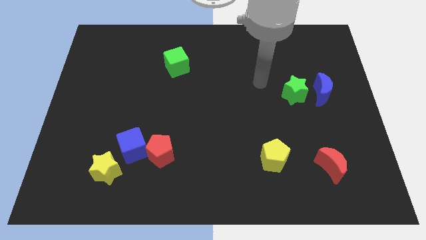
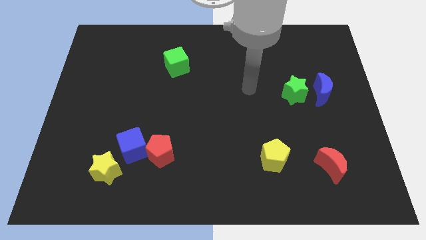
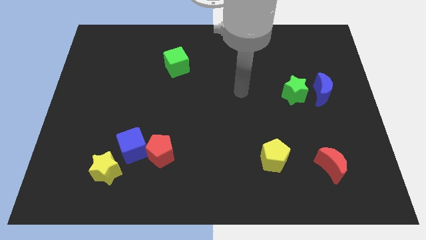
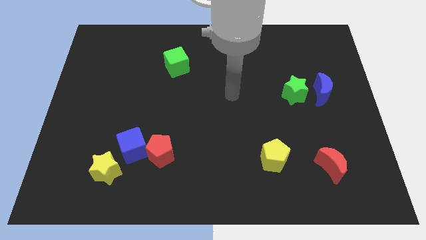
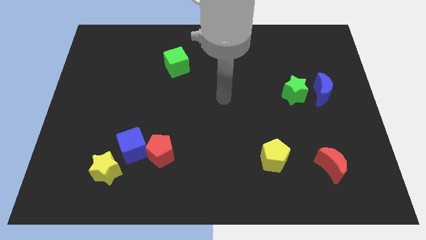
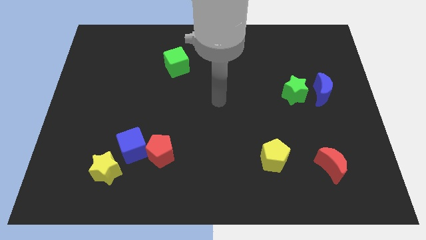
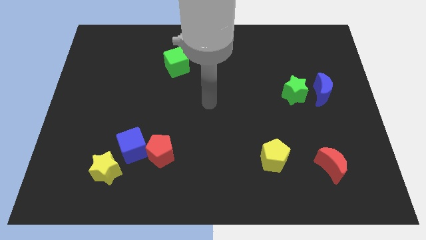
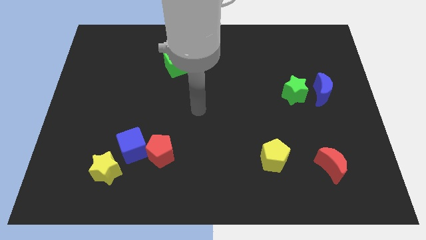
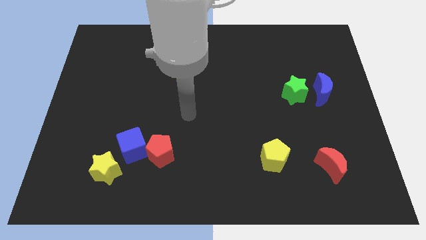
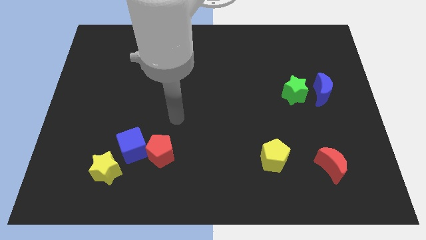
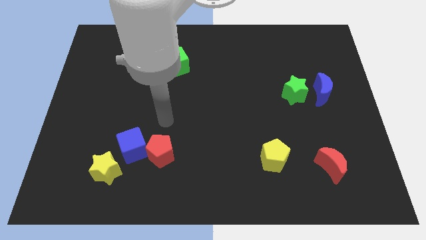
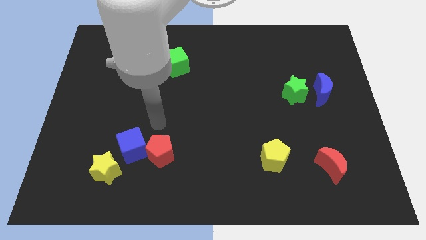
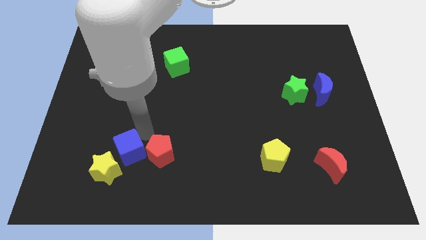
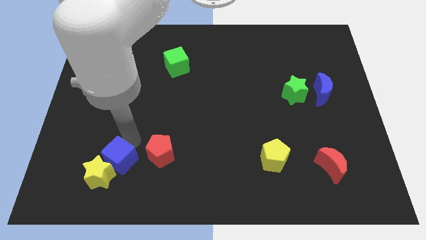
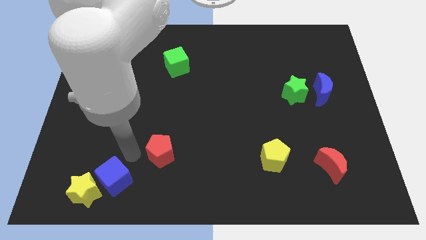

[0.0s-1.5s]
separate the red pentagon from the blue cube

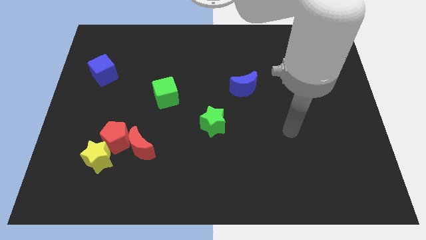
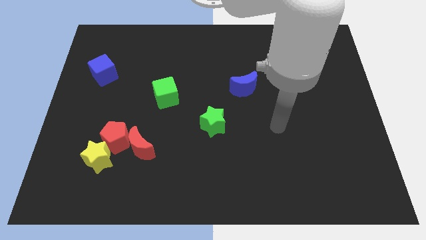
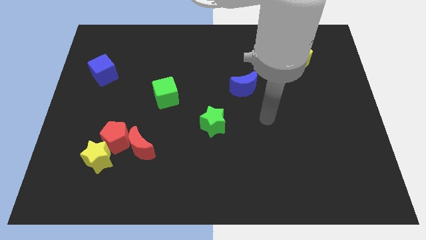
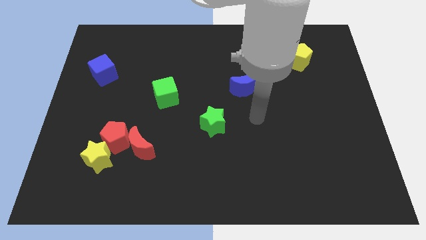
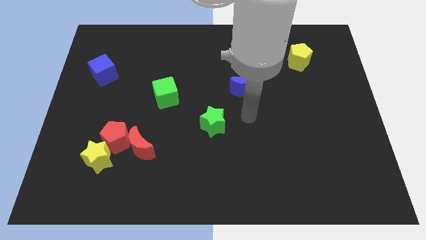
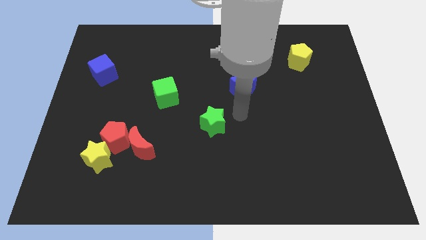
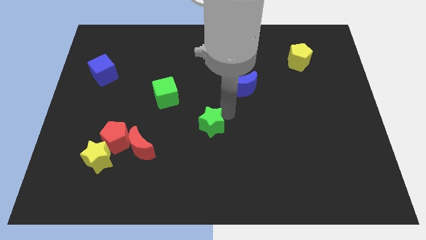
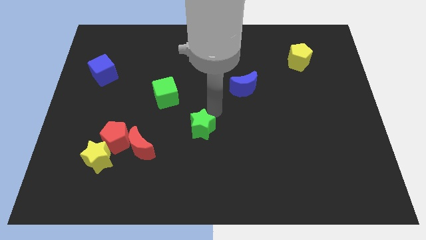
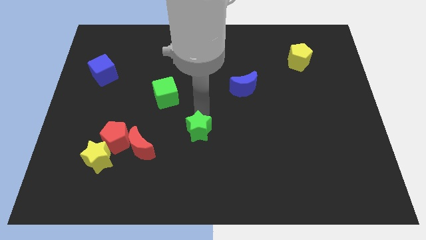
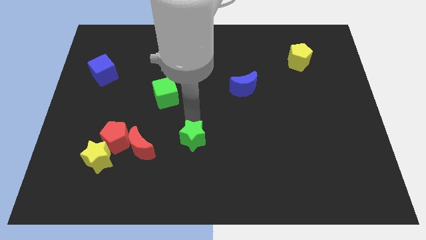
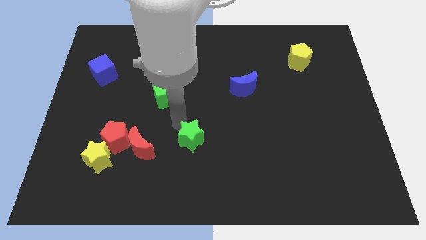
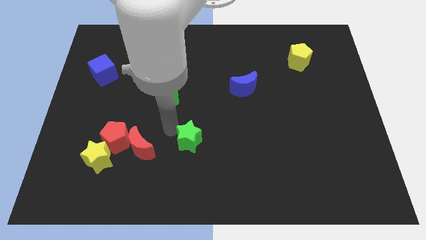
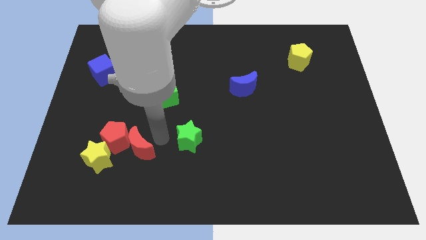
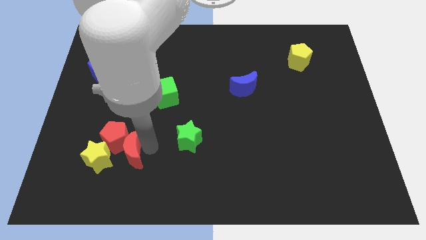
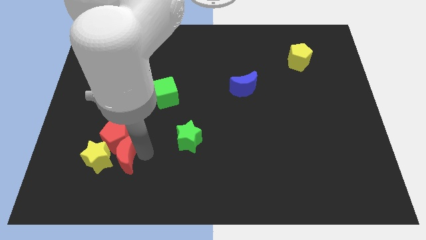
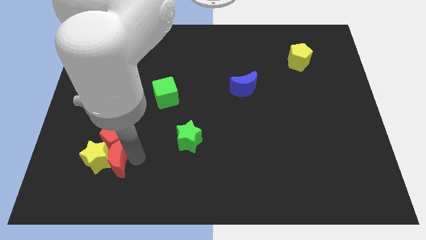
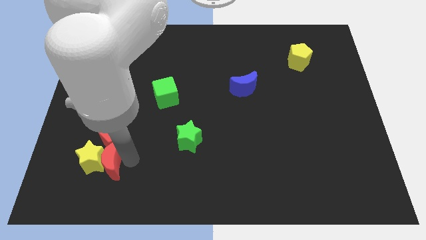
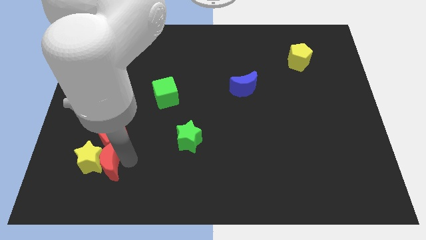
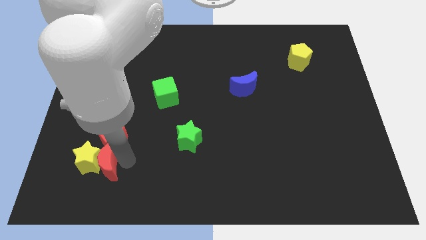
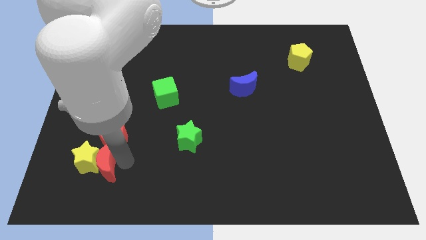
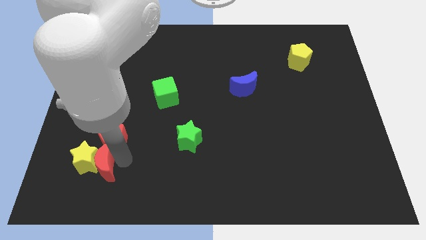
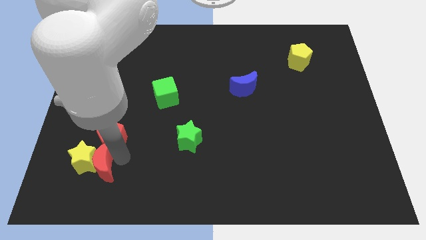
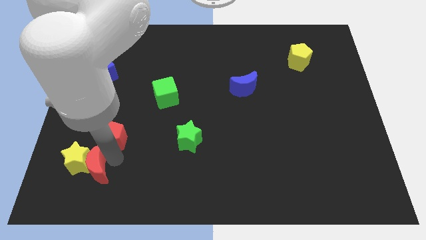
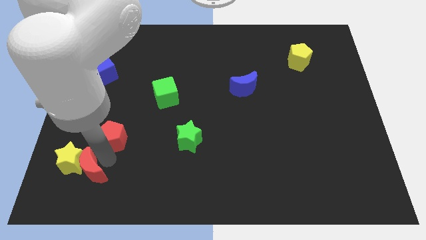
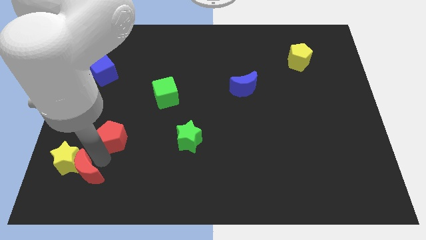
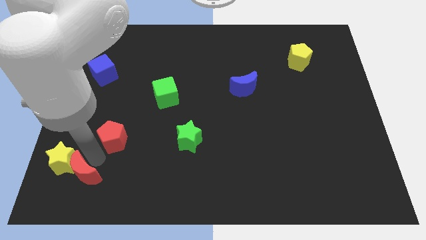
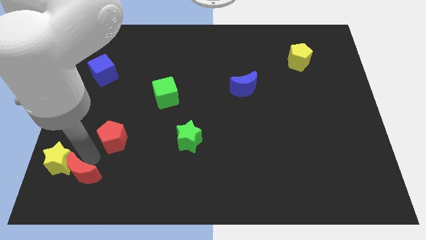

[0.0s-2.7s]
separate the red pentagon from the yellow star and red moon

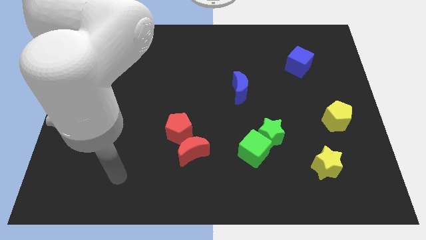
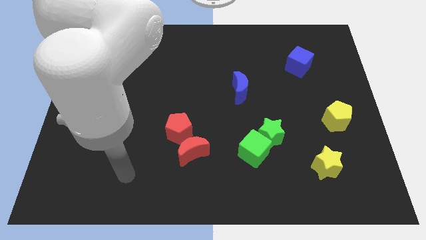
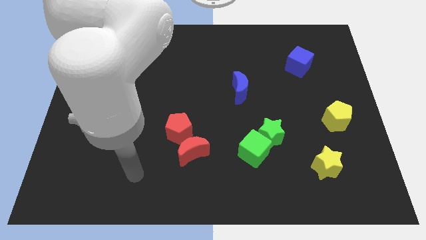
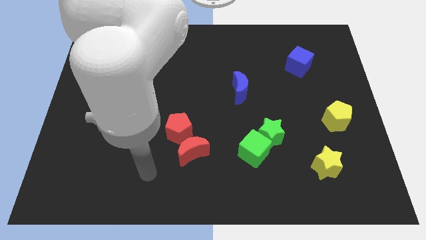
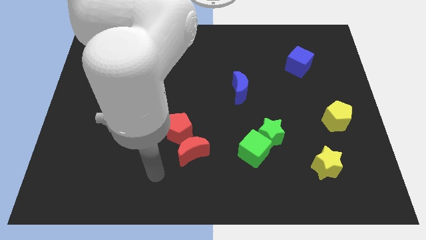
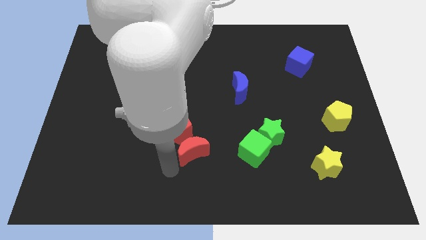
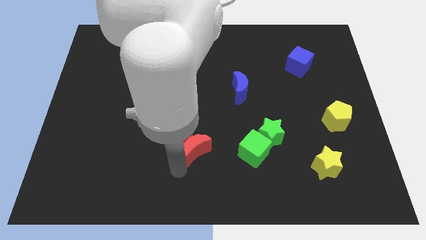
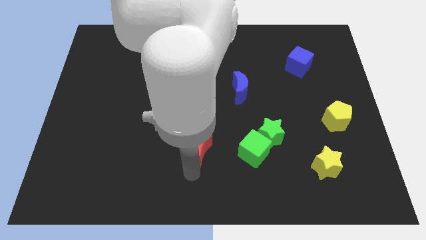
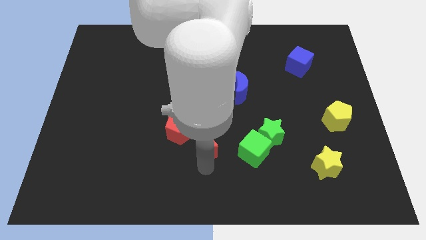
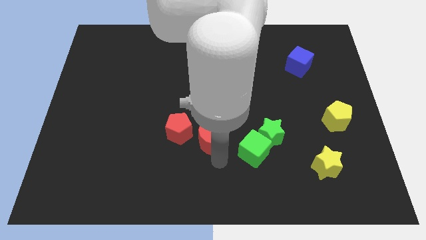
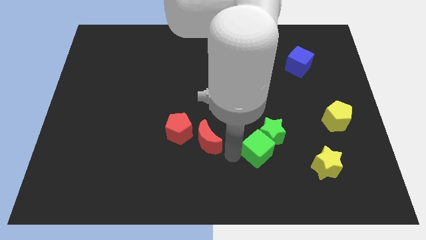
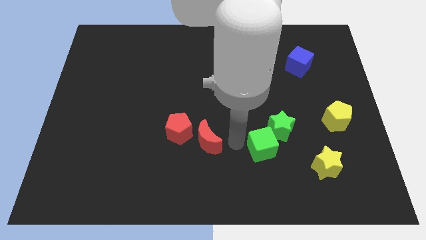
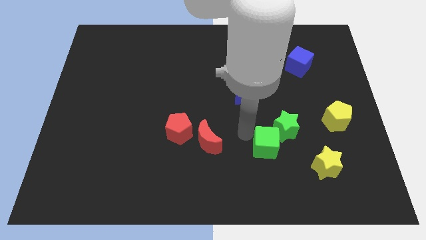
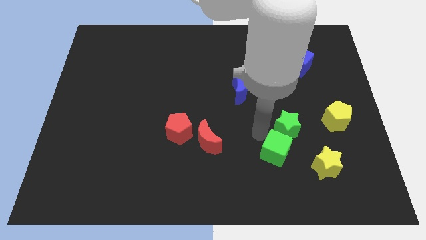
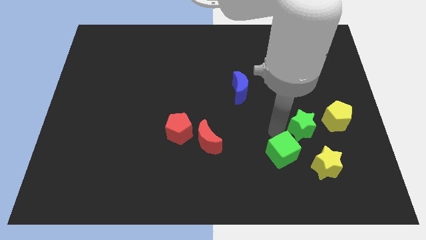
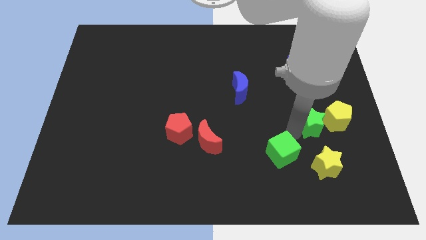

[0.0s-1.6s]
separate the green cube from the green star

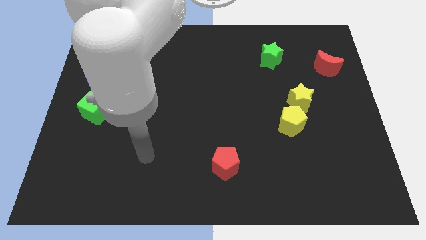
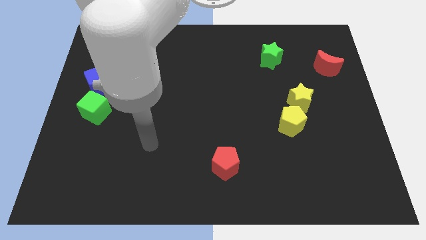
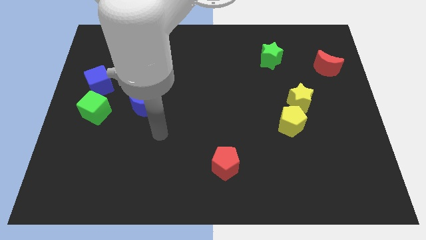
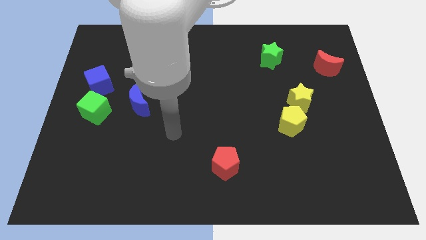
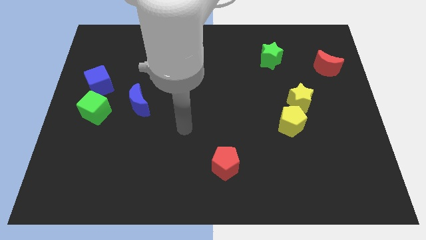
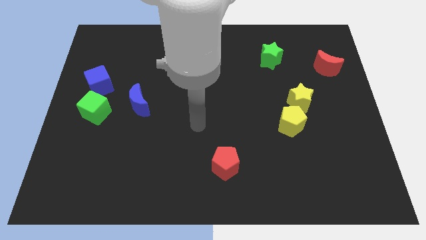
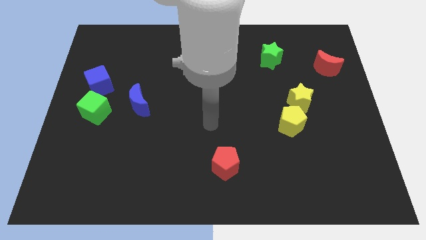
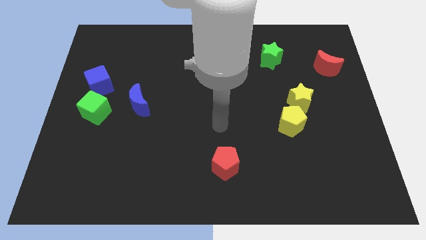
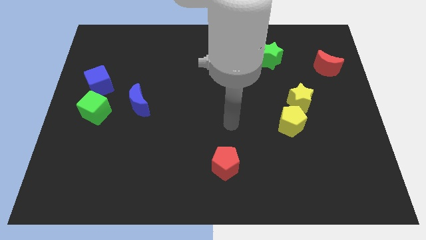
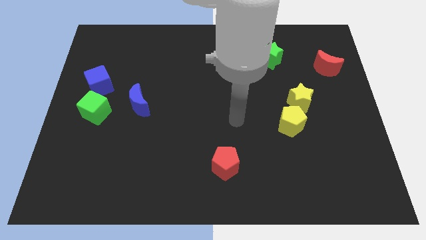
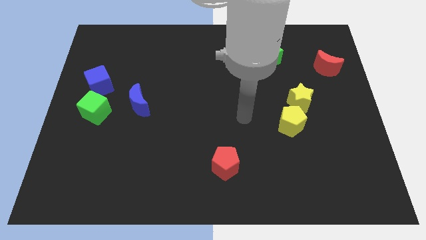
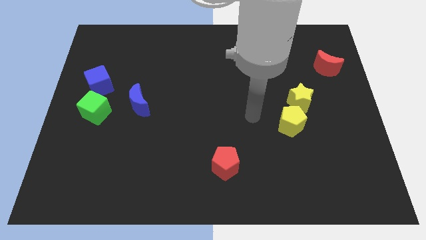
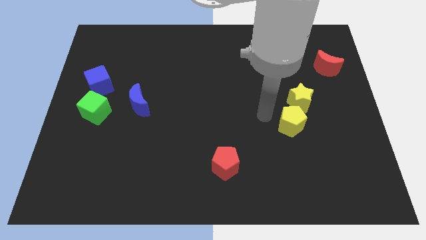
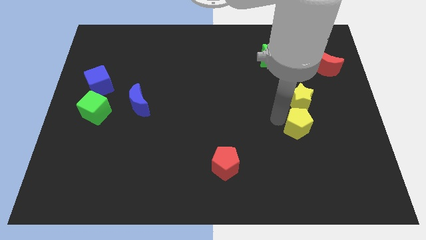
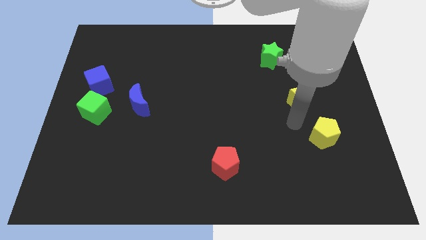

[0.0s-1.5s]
separate the yellow star from the yellow pentagon

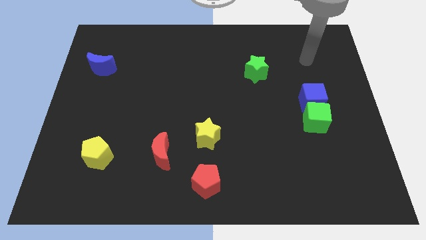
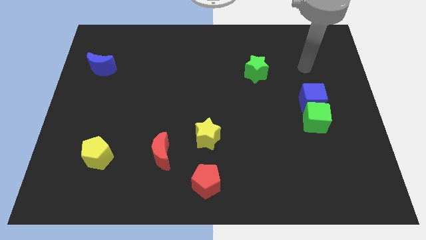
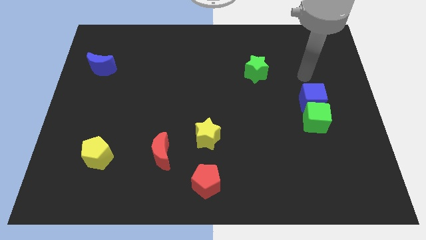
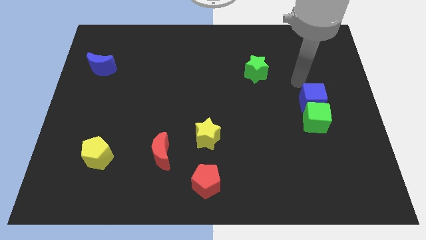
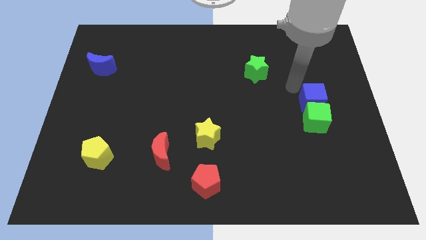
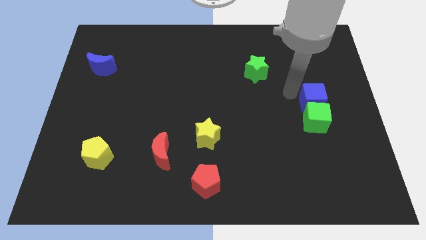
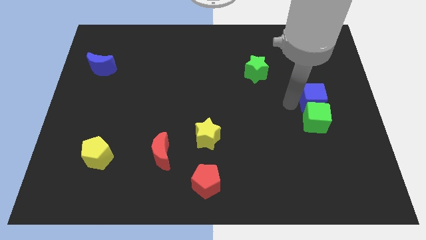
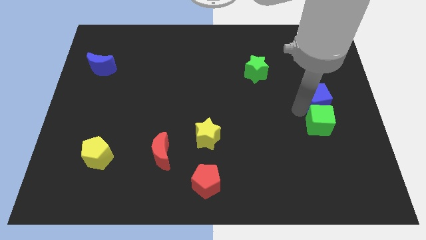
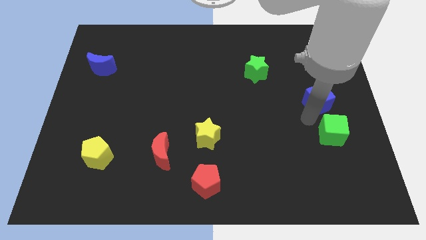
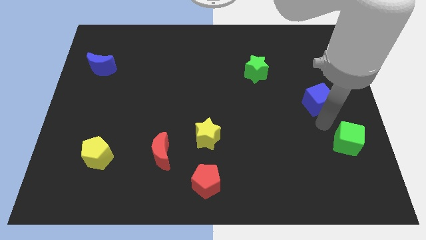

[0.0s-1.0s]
pull the blue cube apart from the green cube

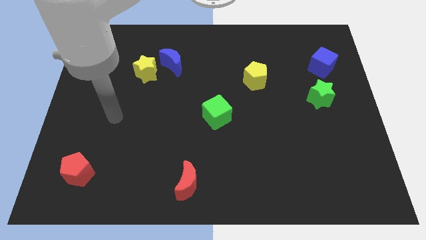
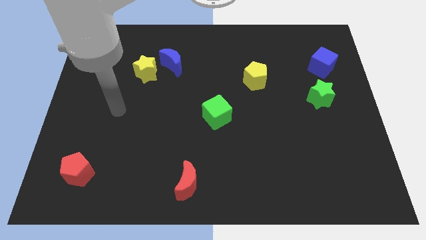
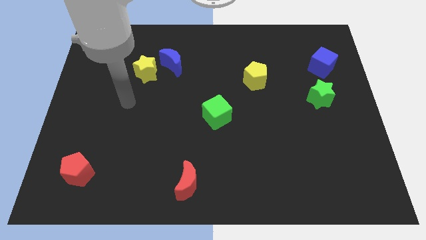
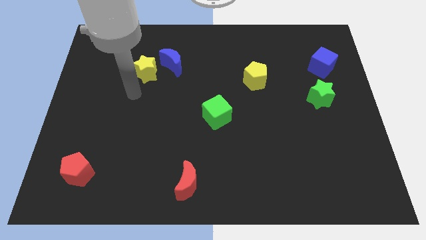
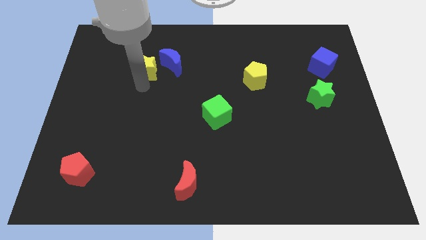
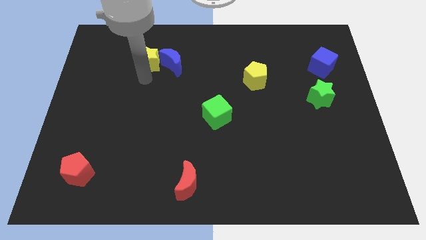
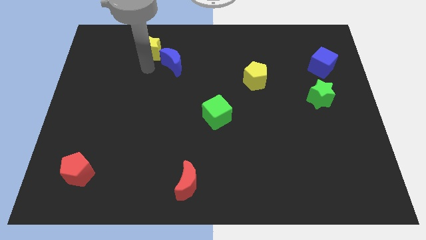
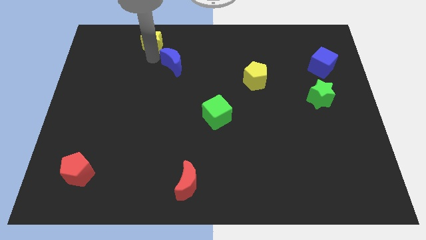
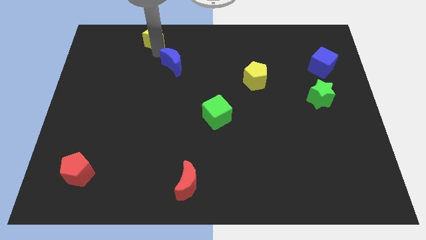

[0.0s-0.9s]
pull the blue moon apart from the yellow star
